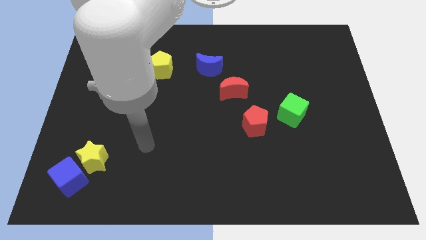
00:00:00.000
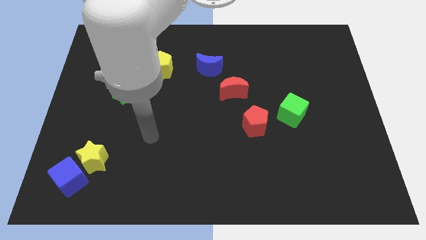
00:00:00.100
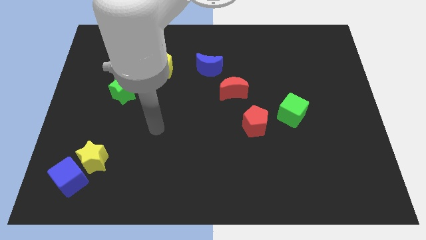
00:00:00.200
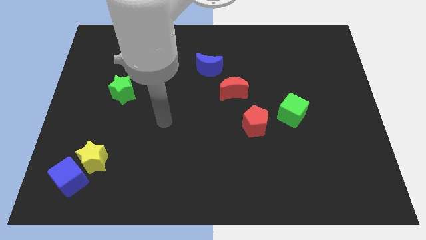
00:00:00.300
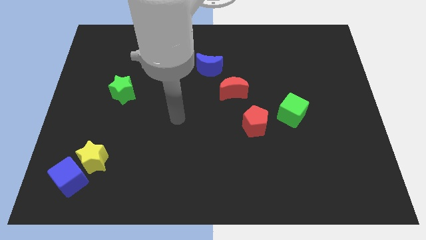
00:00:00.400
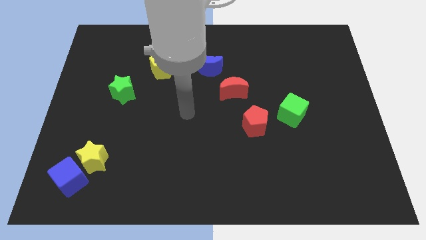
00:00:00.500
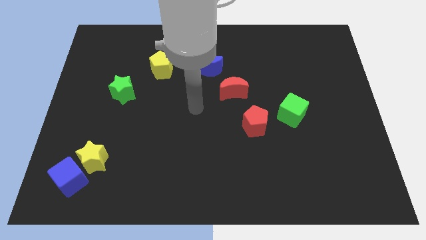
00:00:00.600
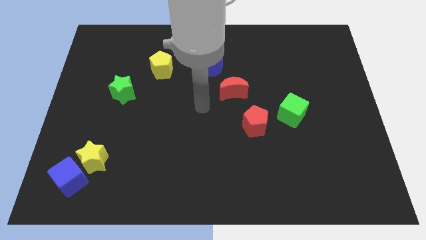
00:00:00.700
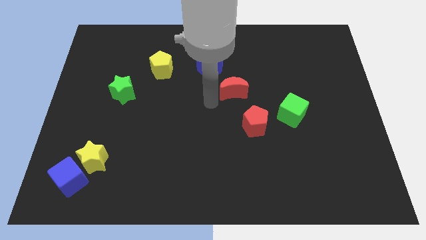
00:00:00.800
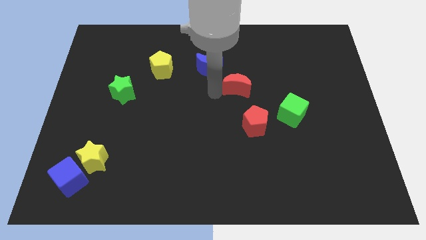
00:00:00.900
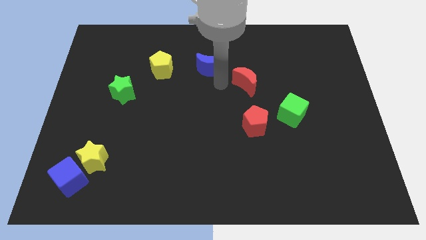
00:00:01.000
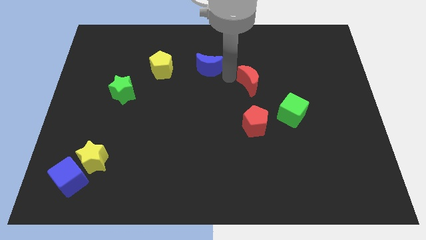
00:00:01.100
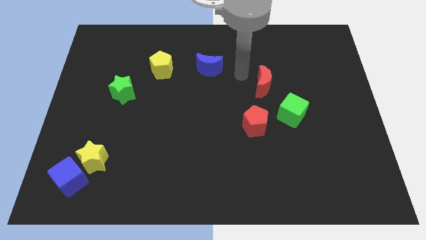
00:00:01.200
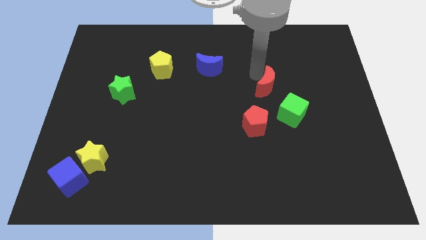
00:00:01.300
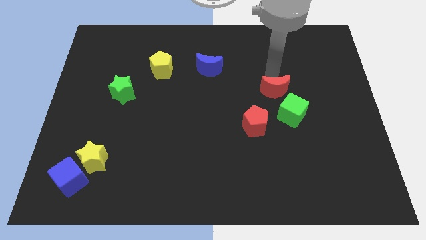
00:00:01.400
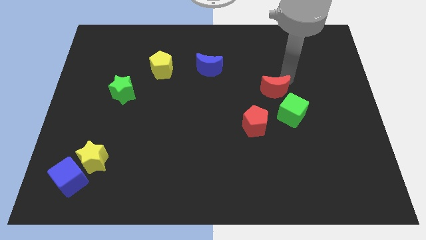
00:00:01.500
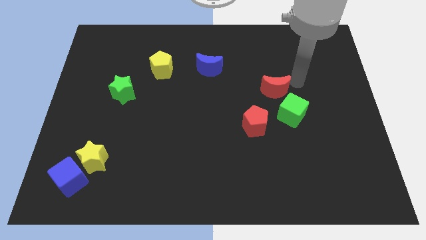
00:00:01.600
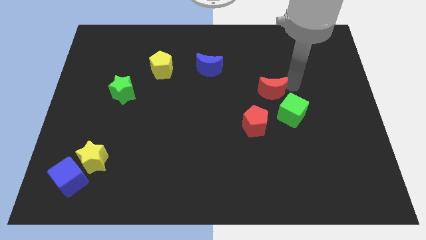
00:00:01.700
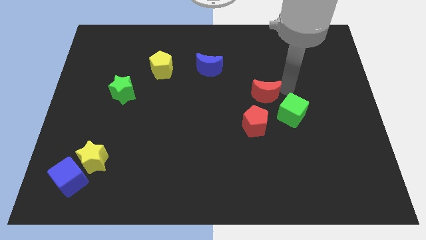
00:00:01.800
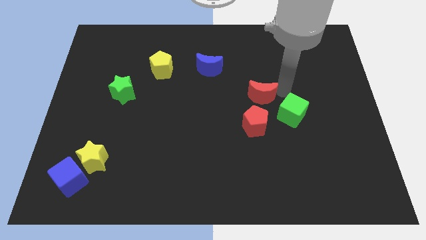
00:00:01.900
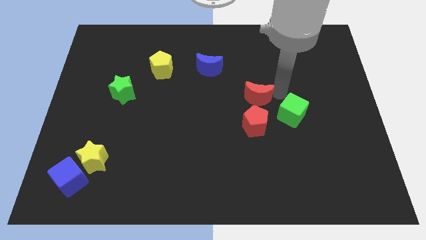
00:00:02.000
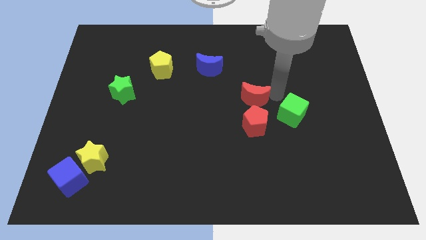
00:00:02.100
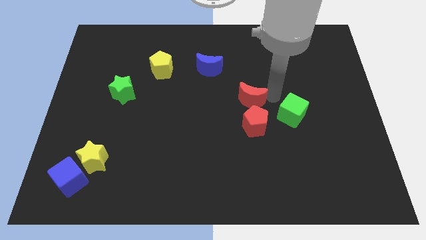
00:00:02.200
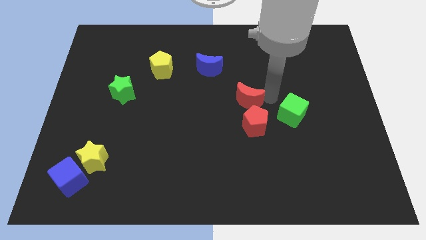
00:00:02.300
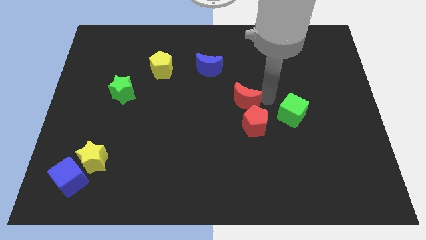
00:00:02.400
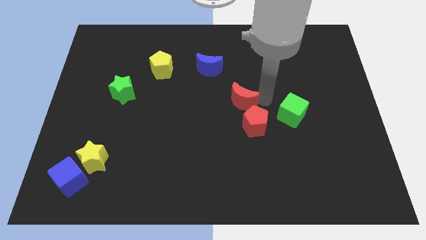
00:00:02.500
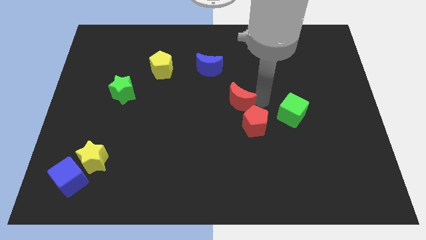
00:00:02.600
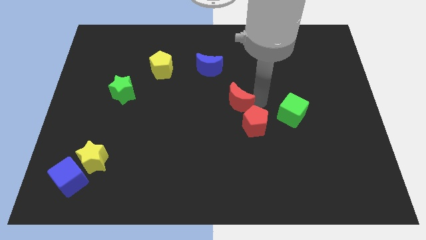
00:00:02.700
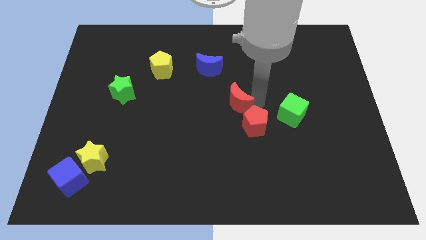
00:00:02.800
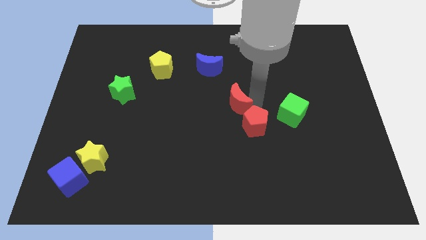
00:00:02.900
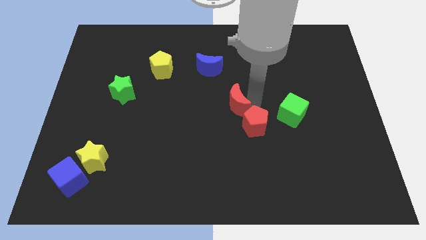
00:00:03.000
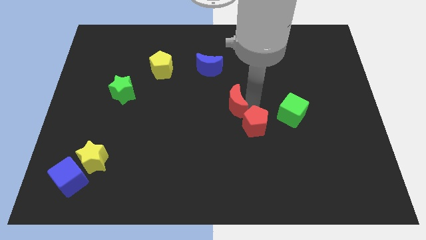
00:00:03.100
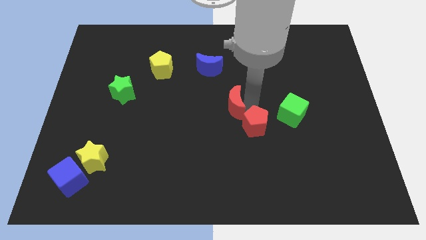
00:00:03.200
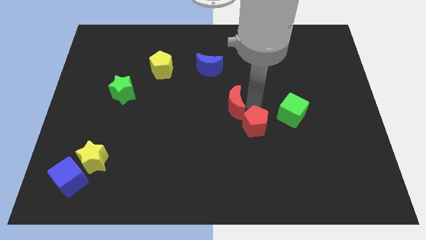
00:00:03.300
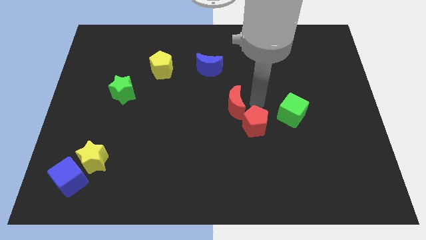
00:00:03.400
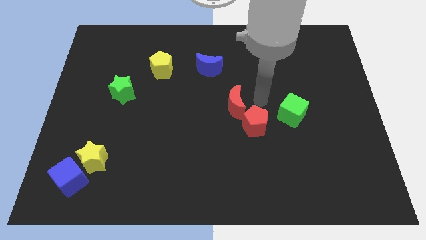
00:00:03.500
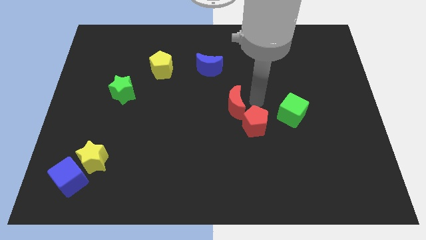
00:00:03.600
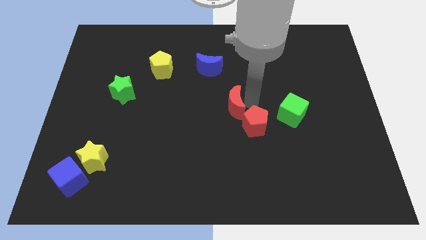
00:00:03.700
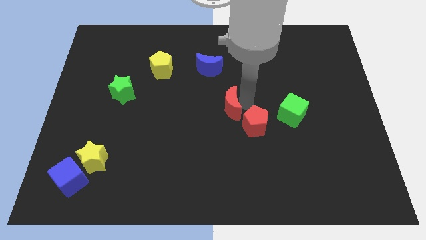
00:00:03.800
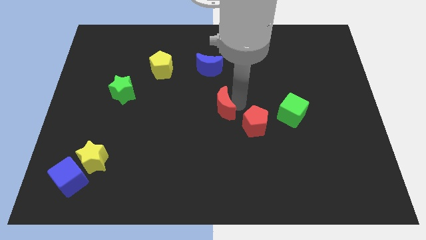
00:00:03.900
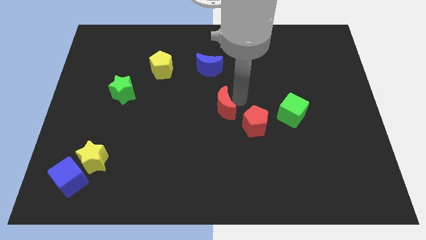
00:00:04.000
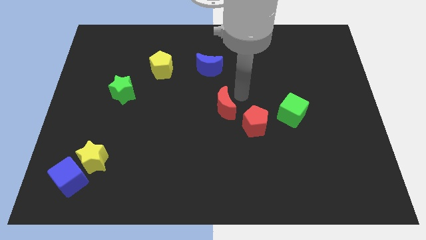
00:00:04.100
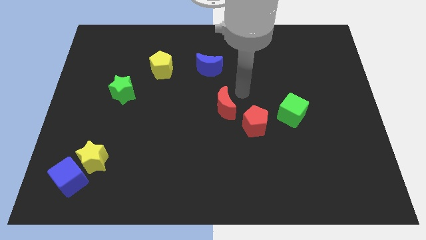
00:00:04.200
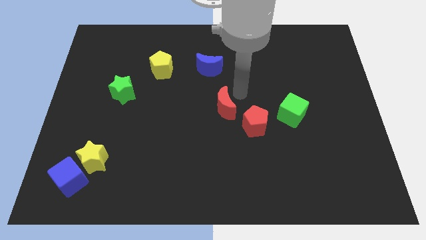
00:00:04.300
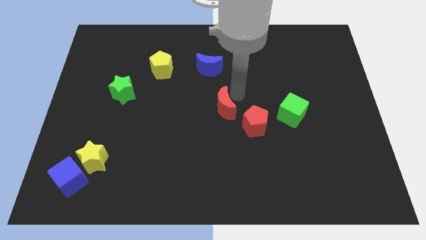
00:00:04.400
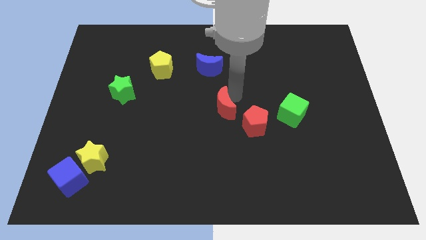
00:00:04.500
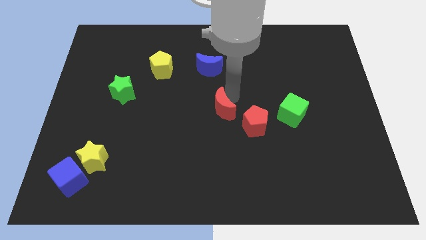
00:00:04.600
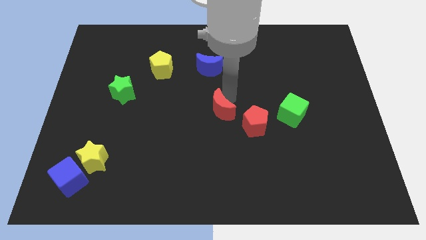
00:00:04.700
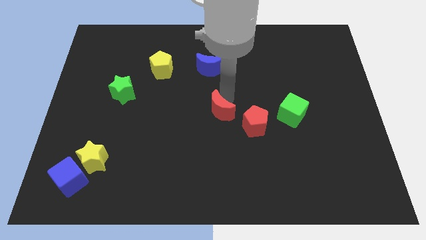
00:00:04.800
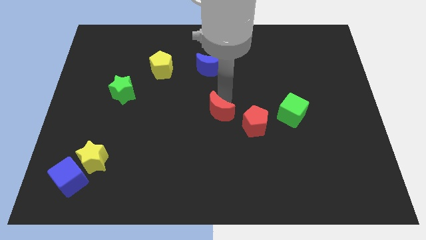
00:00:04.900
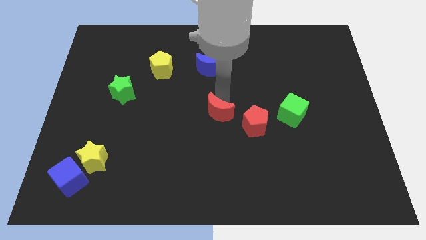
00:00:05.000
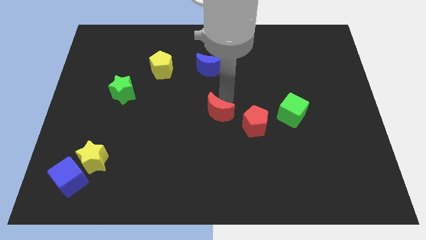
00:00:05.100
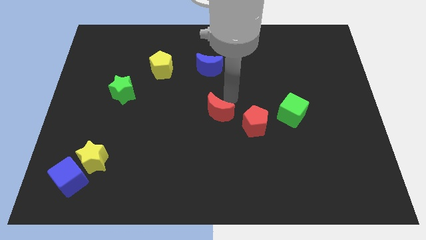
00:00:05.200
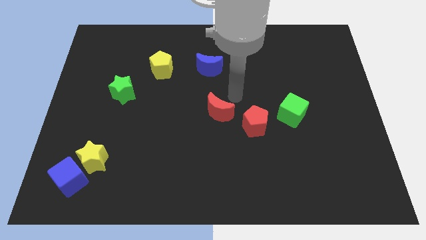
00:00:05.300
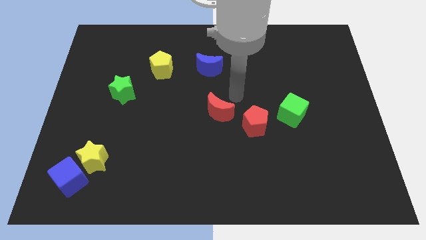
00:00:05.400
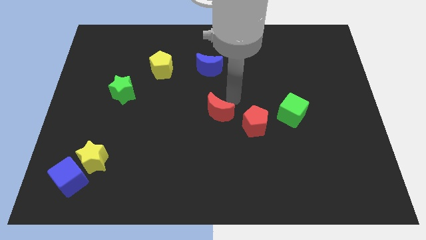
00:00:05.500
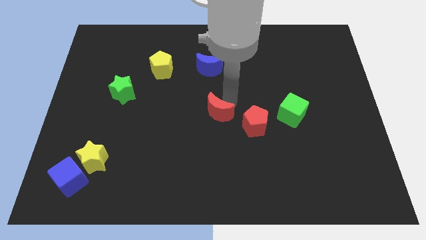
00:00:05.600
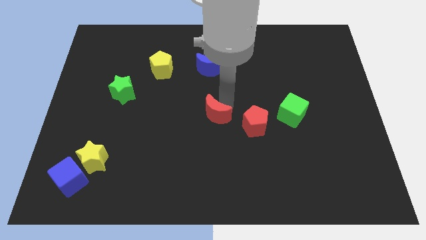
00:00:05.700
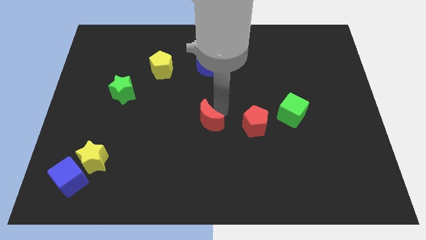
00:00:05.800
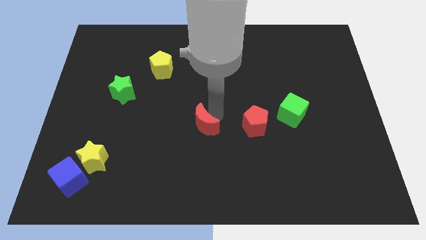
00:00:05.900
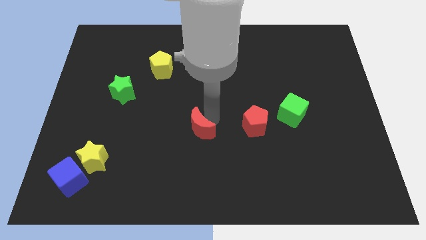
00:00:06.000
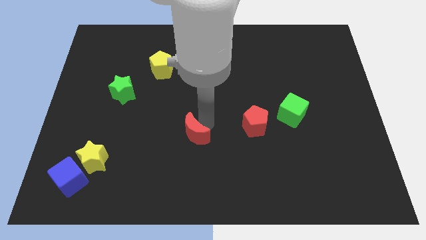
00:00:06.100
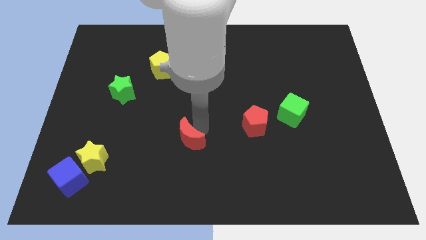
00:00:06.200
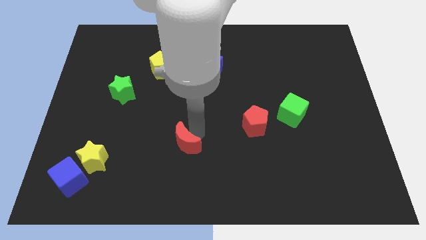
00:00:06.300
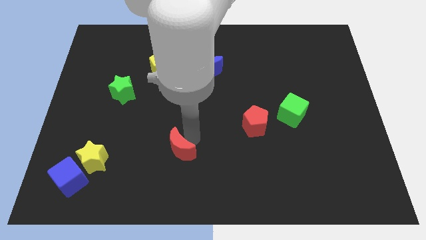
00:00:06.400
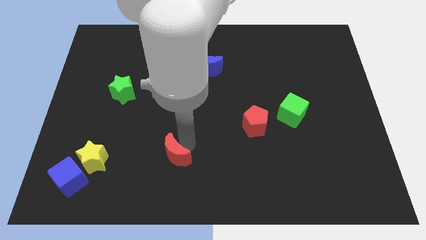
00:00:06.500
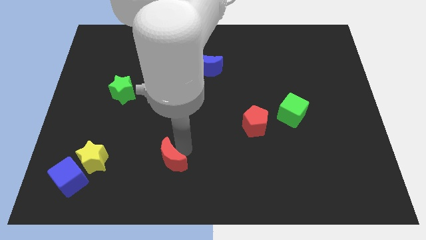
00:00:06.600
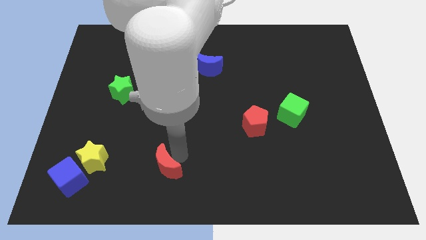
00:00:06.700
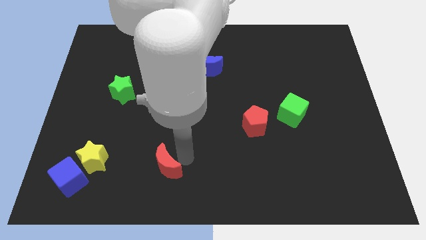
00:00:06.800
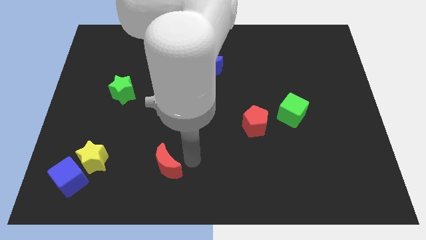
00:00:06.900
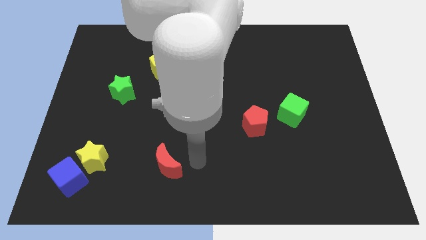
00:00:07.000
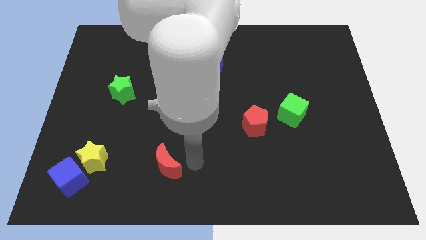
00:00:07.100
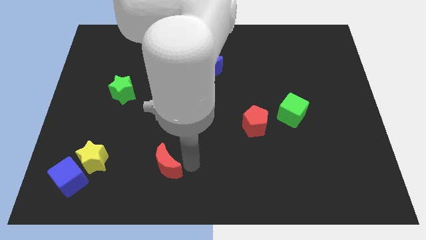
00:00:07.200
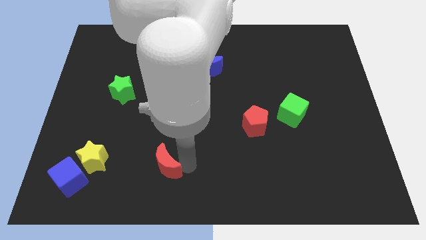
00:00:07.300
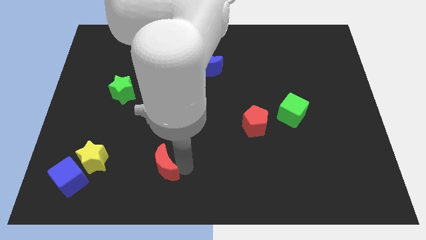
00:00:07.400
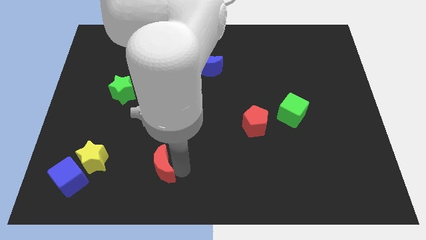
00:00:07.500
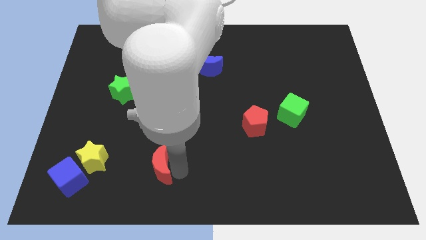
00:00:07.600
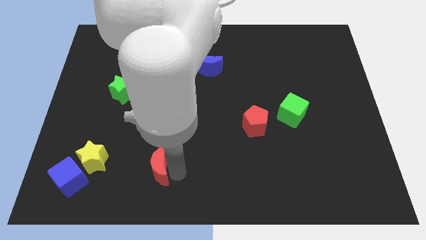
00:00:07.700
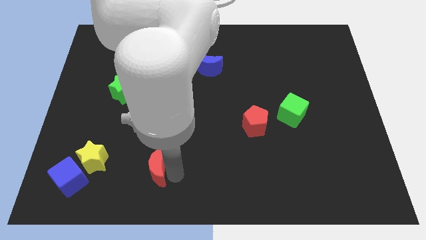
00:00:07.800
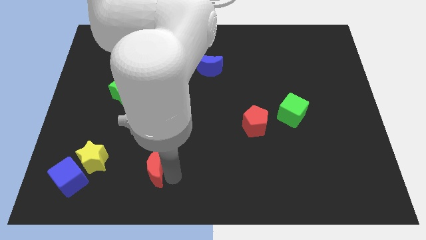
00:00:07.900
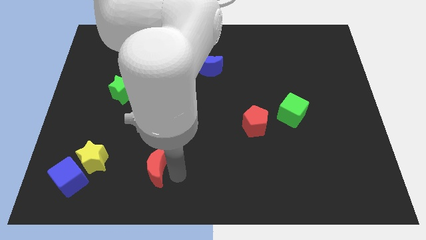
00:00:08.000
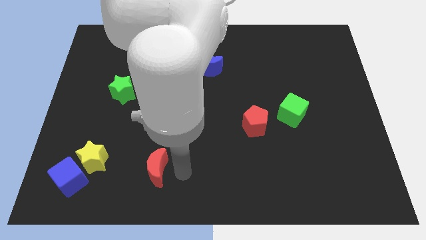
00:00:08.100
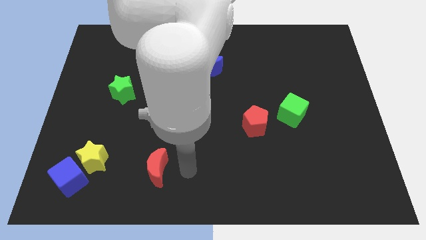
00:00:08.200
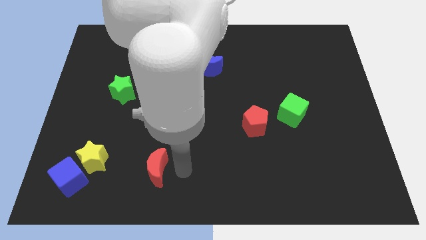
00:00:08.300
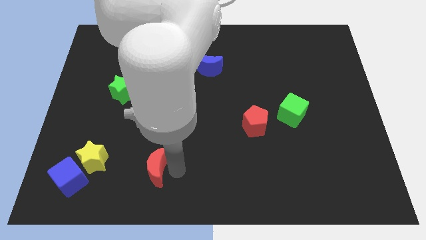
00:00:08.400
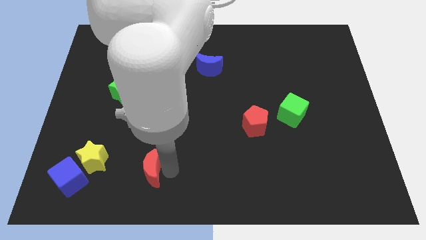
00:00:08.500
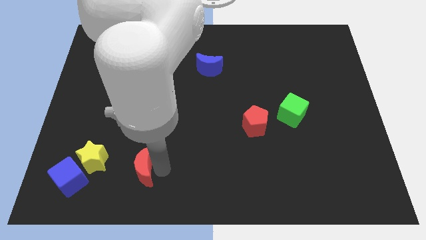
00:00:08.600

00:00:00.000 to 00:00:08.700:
slide the red moon to the right of the blue cube
